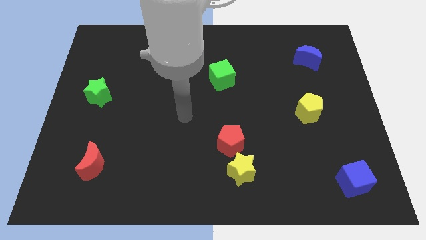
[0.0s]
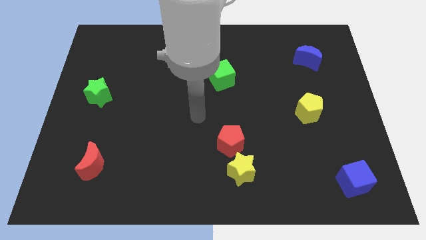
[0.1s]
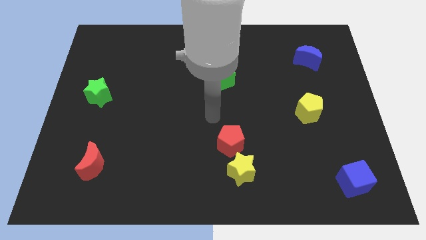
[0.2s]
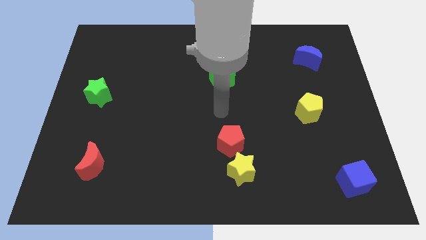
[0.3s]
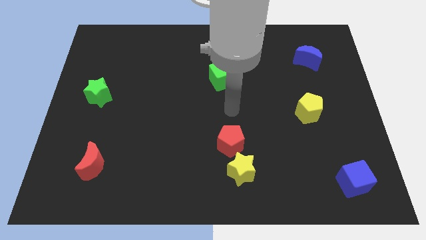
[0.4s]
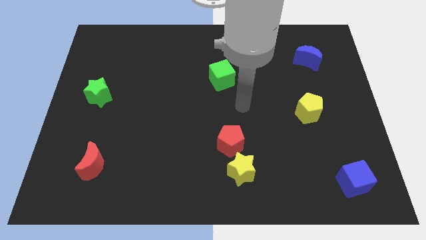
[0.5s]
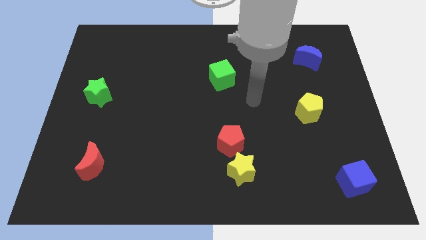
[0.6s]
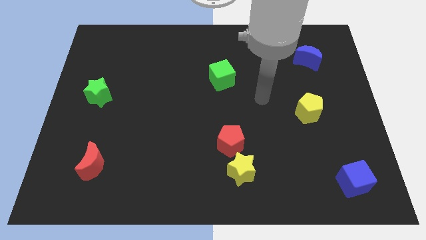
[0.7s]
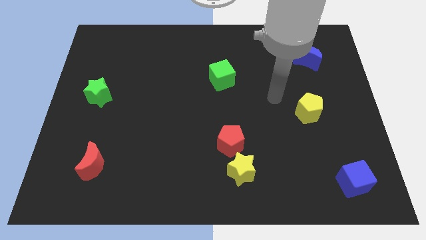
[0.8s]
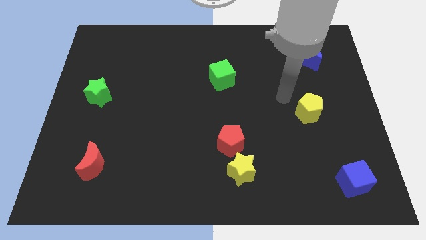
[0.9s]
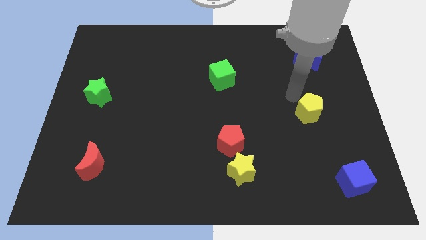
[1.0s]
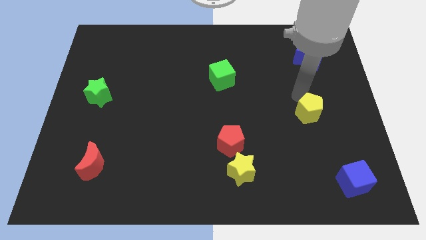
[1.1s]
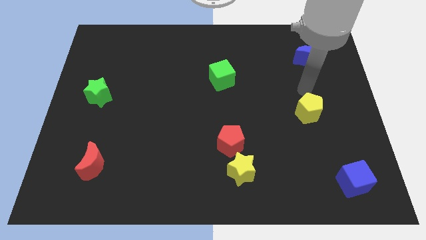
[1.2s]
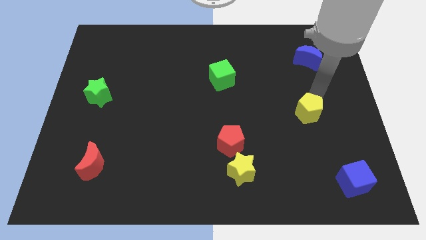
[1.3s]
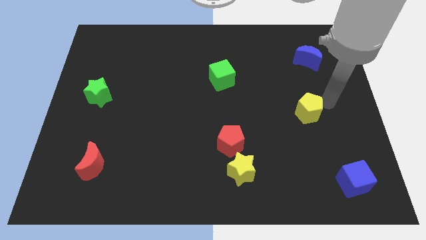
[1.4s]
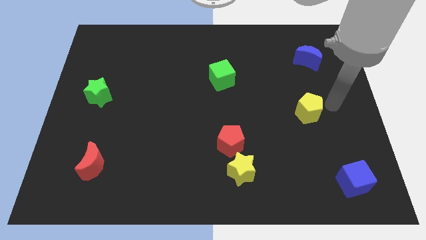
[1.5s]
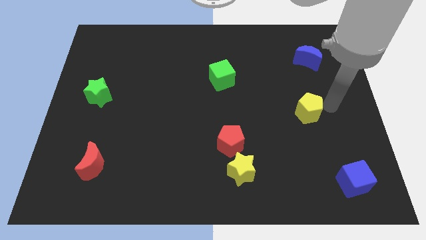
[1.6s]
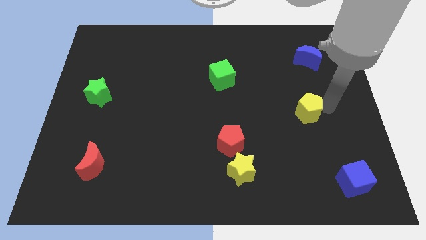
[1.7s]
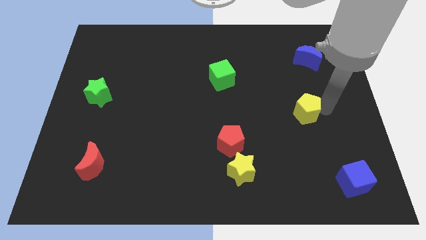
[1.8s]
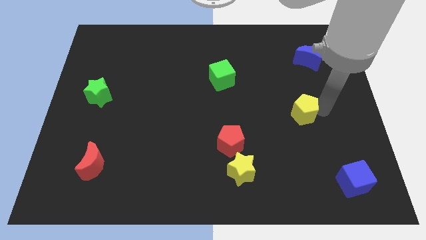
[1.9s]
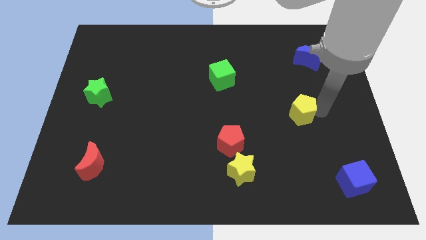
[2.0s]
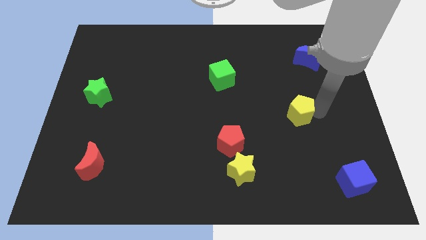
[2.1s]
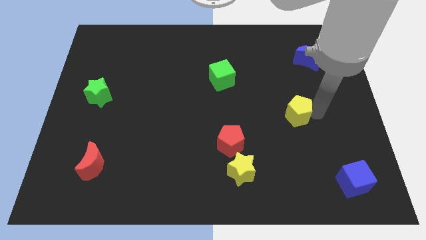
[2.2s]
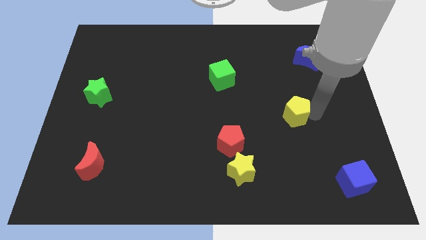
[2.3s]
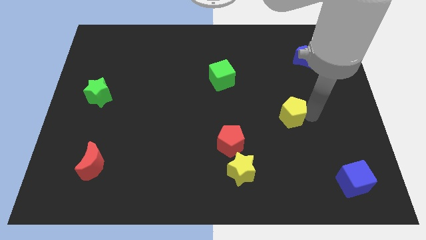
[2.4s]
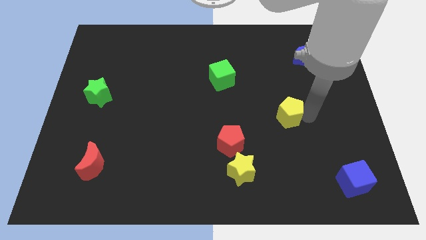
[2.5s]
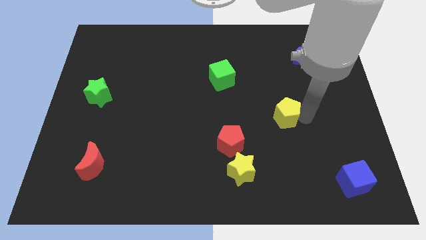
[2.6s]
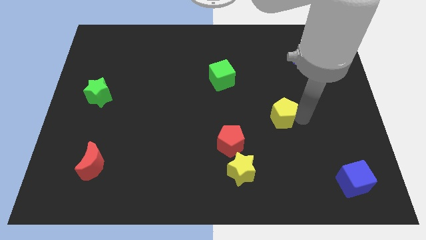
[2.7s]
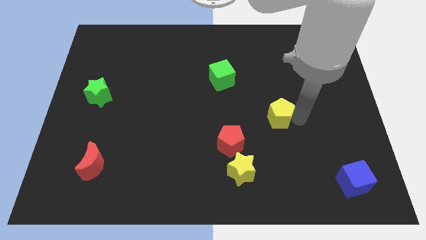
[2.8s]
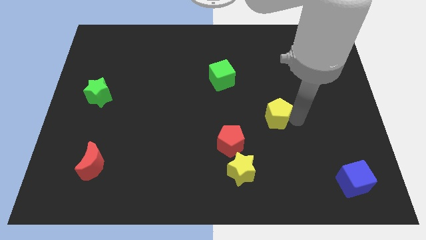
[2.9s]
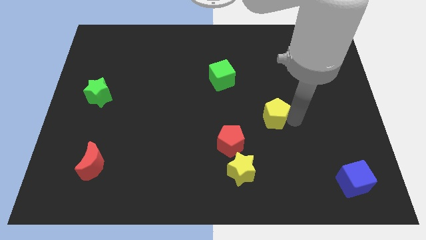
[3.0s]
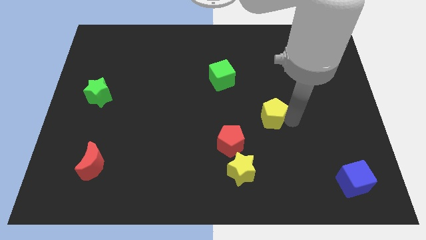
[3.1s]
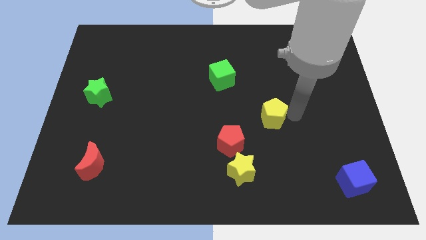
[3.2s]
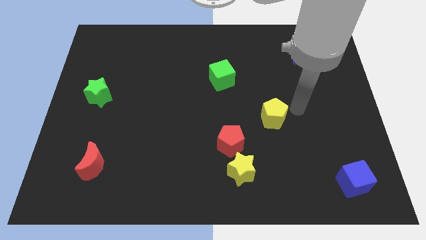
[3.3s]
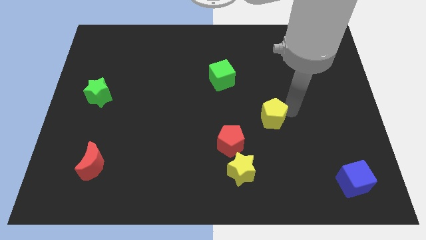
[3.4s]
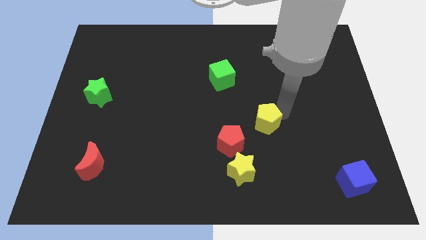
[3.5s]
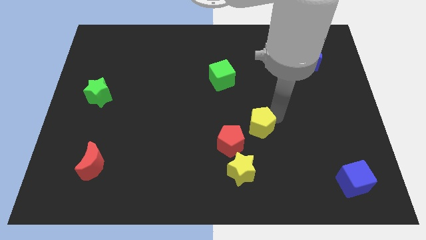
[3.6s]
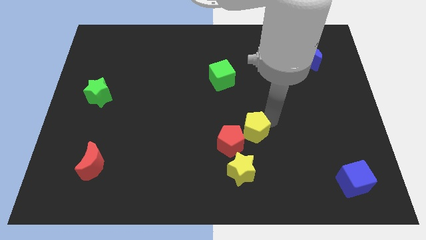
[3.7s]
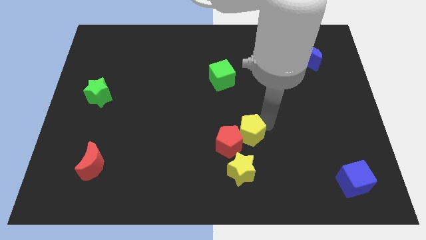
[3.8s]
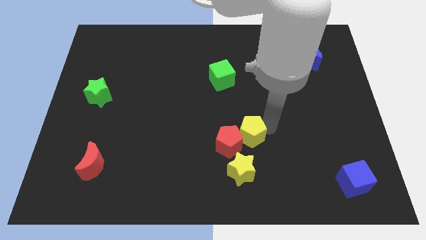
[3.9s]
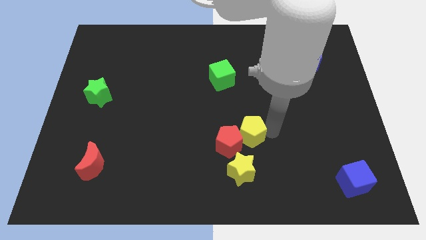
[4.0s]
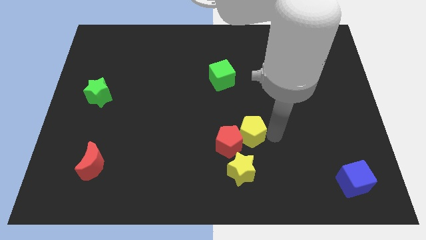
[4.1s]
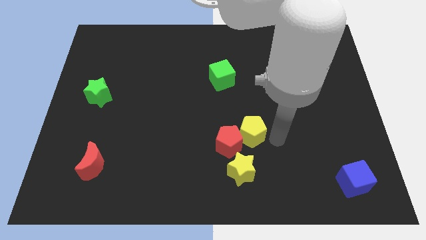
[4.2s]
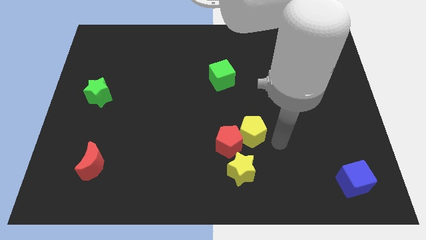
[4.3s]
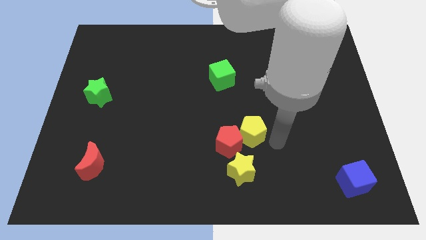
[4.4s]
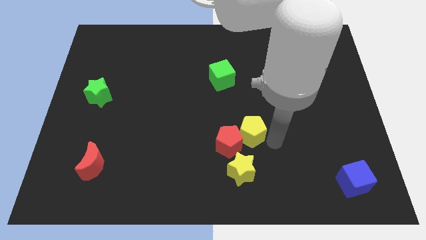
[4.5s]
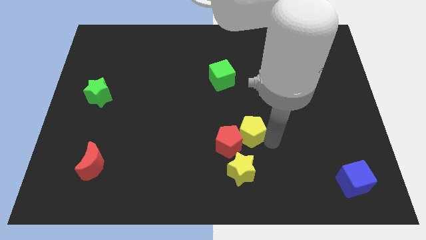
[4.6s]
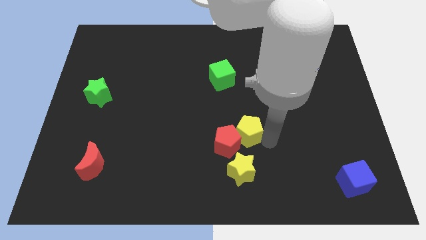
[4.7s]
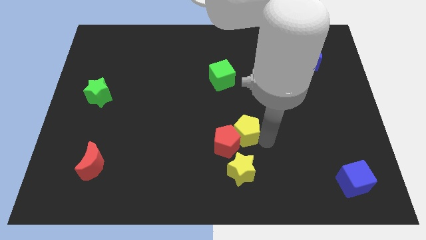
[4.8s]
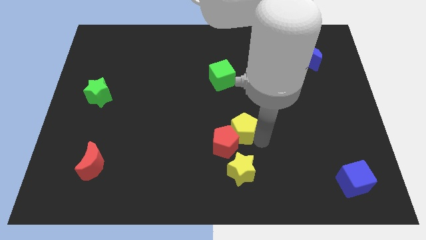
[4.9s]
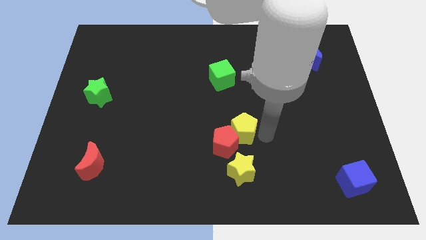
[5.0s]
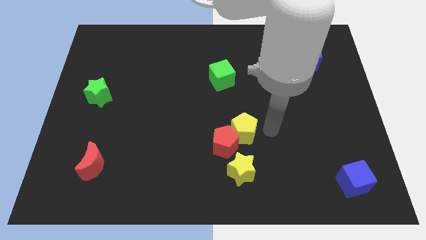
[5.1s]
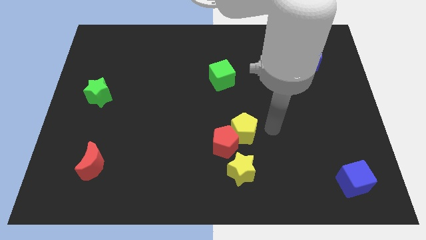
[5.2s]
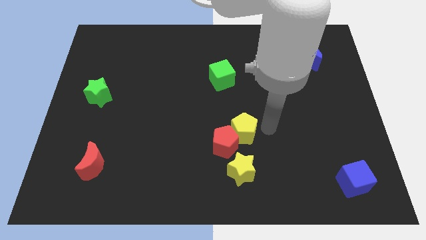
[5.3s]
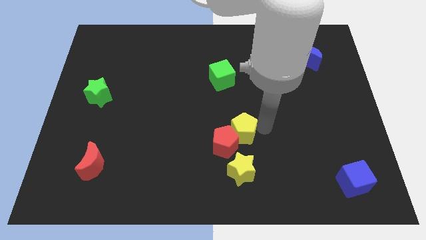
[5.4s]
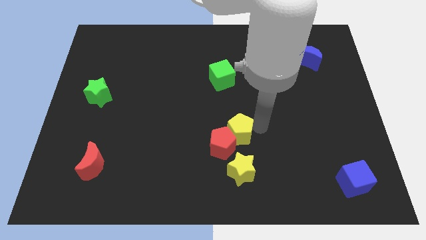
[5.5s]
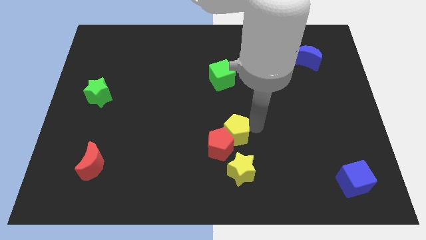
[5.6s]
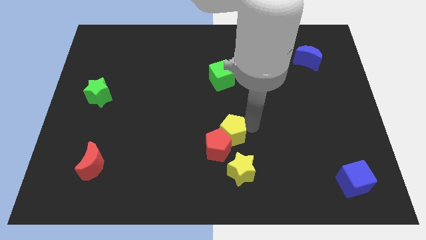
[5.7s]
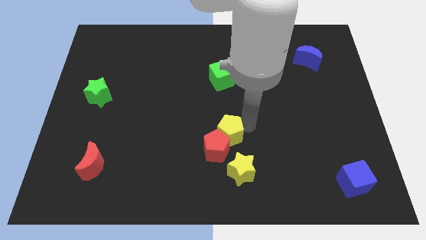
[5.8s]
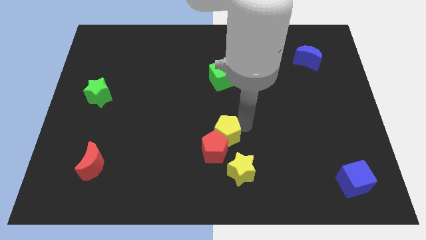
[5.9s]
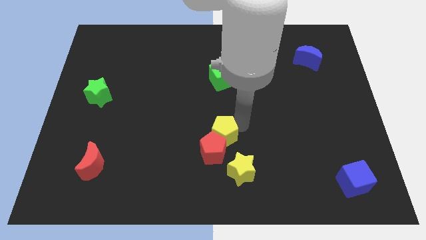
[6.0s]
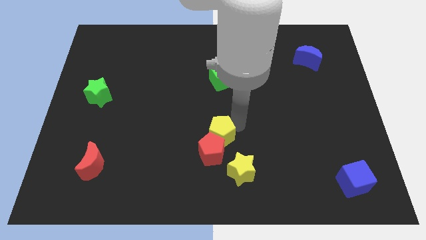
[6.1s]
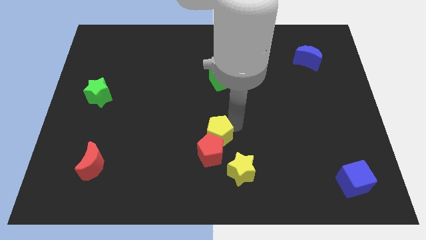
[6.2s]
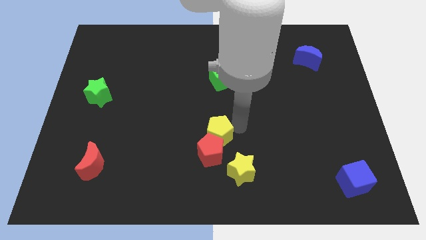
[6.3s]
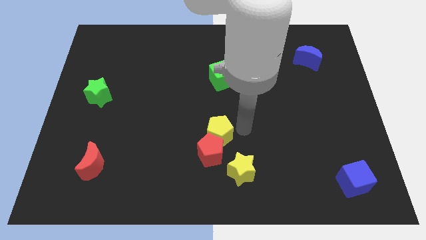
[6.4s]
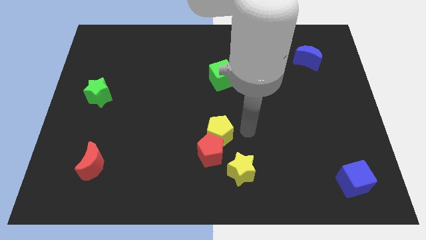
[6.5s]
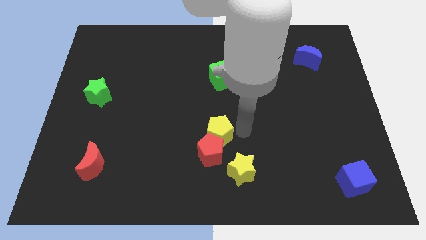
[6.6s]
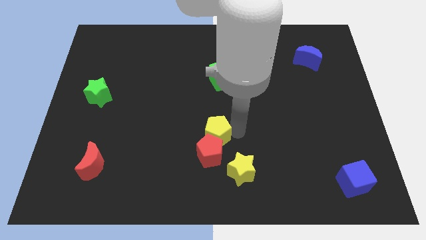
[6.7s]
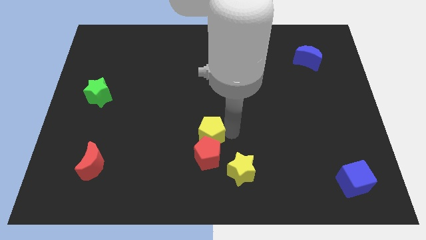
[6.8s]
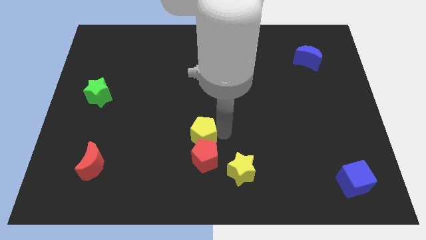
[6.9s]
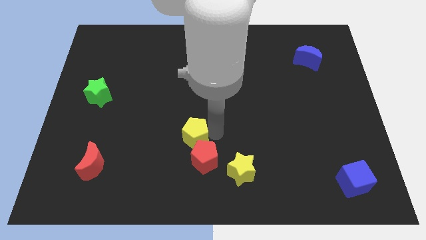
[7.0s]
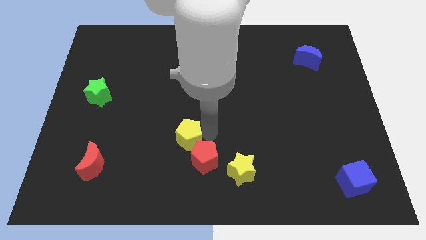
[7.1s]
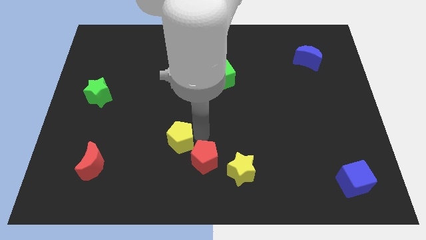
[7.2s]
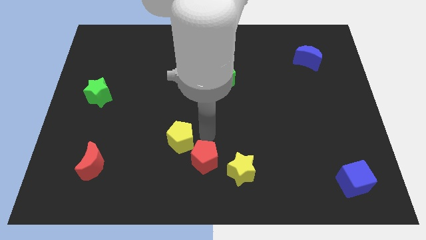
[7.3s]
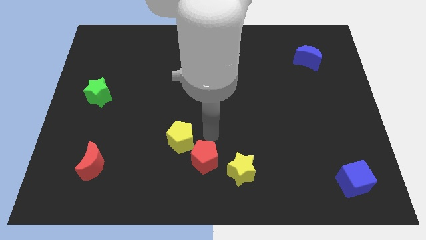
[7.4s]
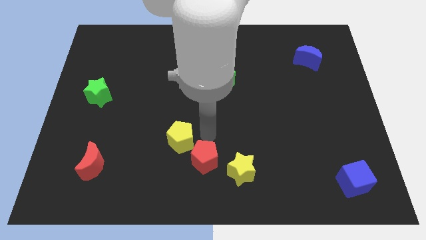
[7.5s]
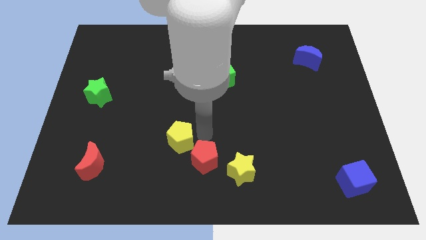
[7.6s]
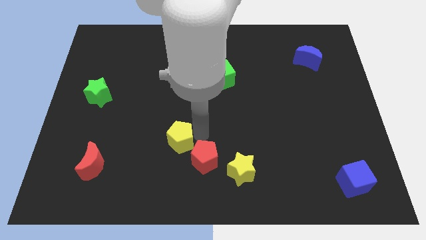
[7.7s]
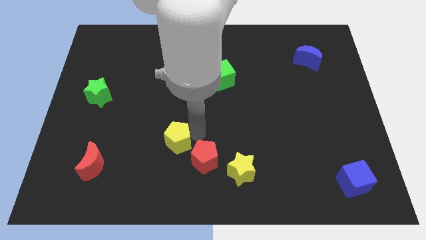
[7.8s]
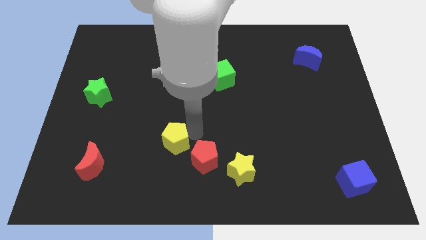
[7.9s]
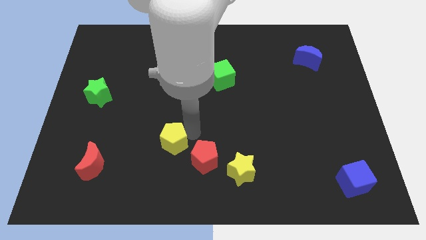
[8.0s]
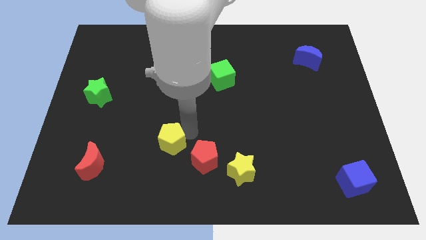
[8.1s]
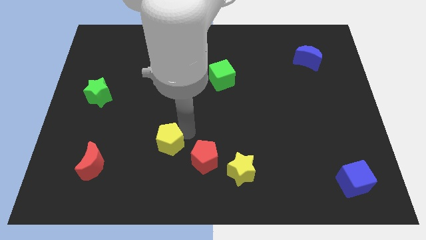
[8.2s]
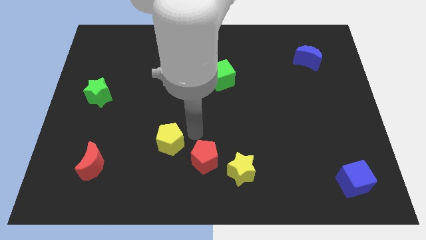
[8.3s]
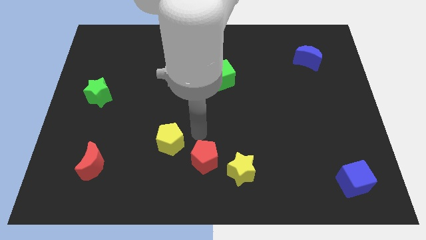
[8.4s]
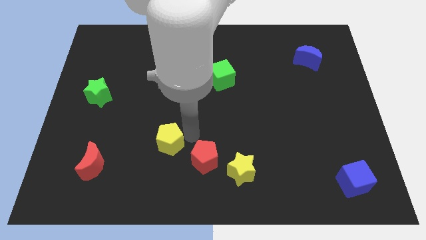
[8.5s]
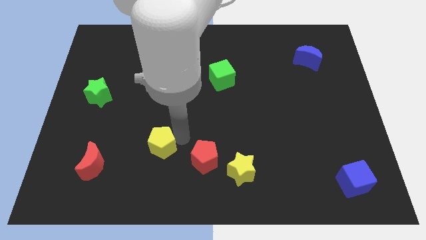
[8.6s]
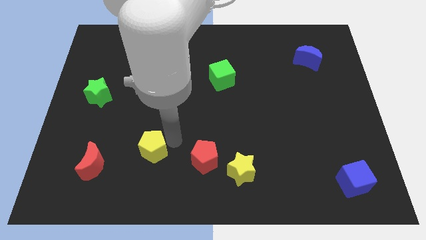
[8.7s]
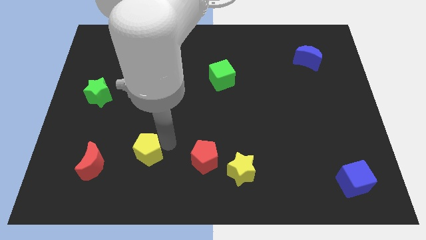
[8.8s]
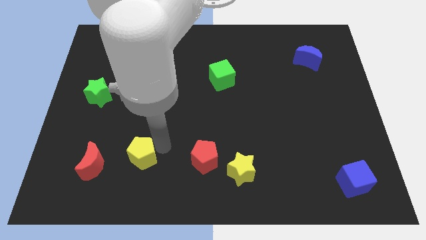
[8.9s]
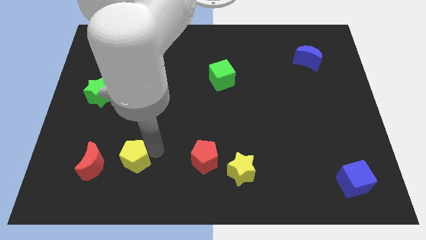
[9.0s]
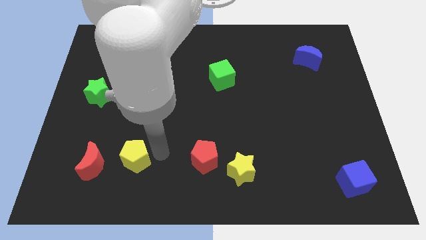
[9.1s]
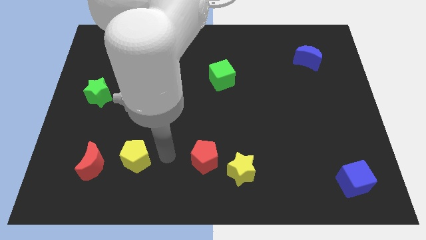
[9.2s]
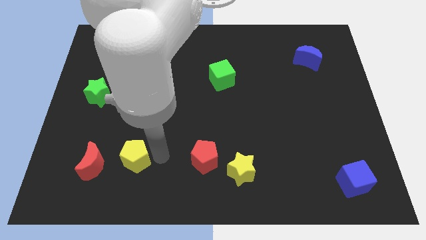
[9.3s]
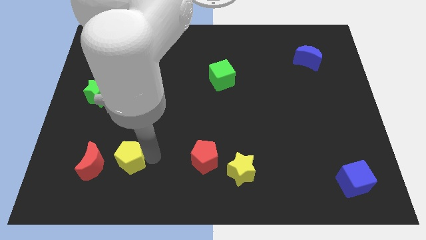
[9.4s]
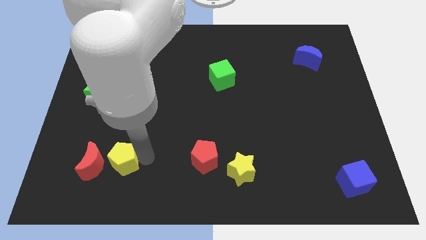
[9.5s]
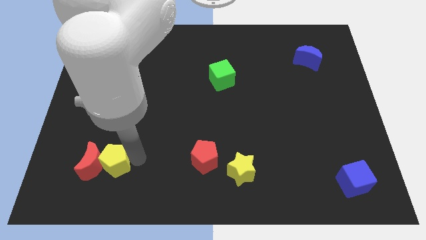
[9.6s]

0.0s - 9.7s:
put the yellow pentagon to the red moon
